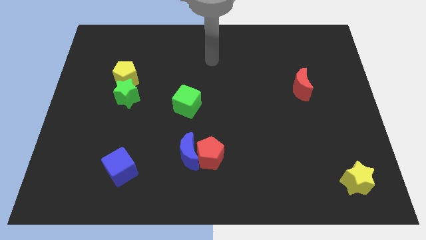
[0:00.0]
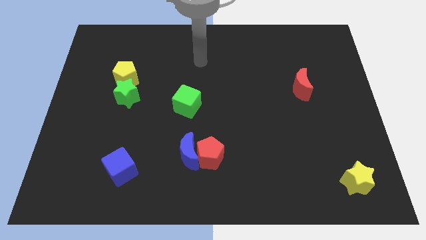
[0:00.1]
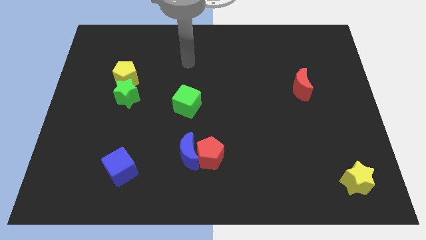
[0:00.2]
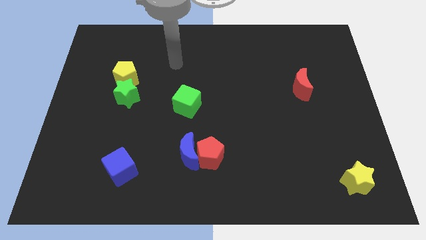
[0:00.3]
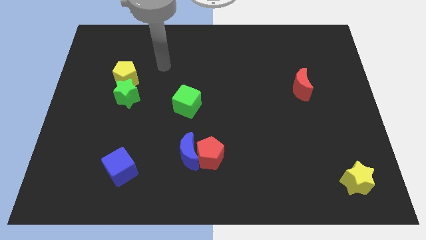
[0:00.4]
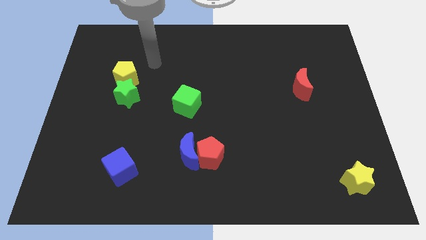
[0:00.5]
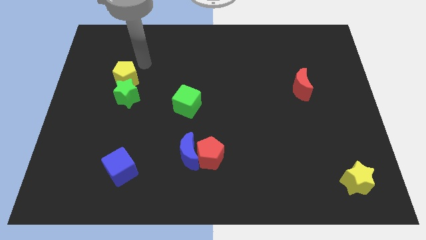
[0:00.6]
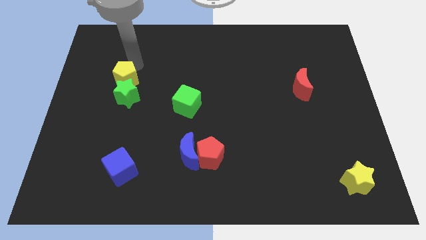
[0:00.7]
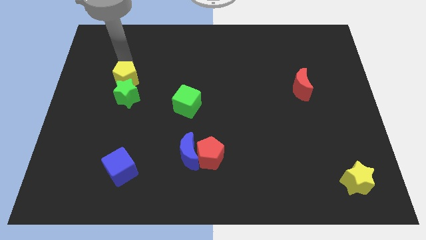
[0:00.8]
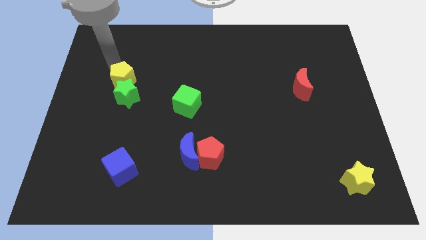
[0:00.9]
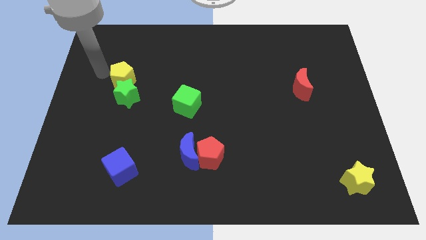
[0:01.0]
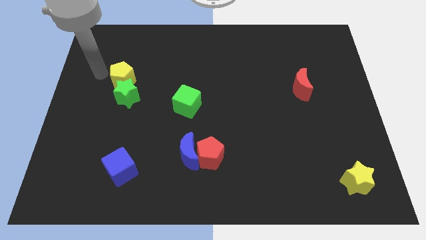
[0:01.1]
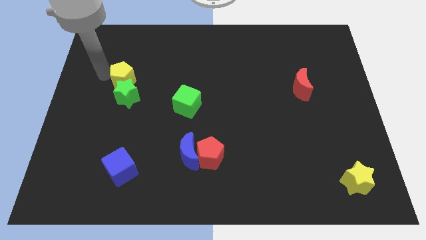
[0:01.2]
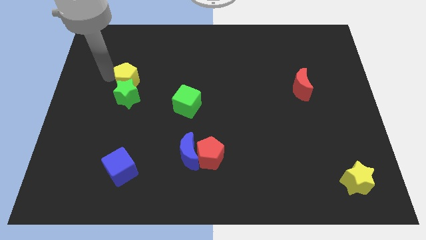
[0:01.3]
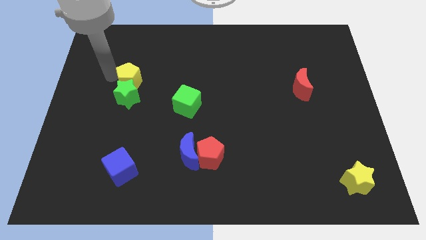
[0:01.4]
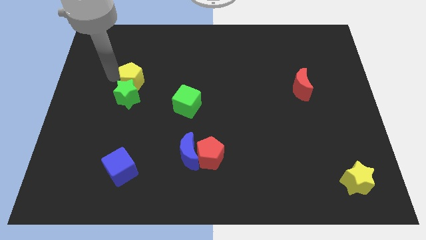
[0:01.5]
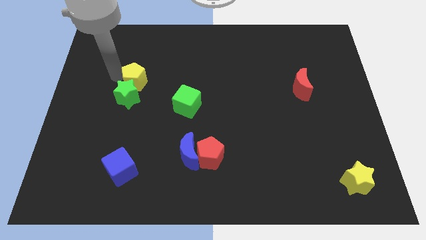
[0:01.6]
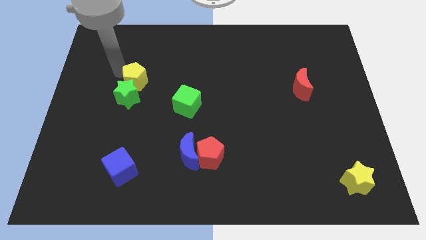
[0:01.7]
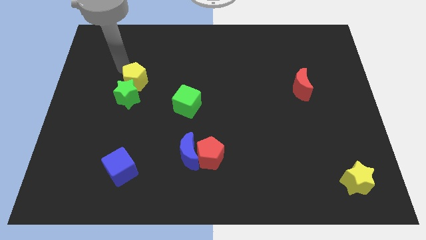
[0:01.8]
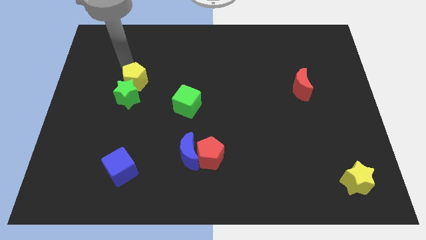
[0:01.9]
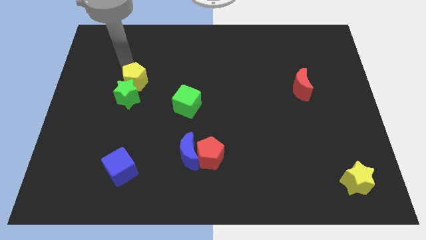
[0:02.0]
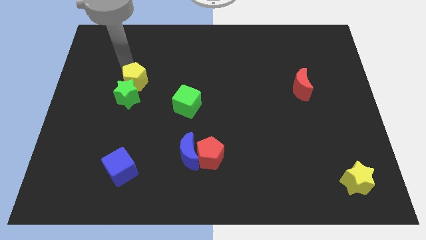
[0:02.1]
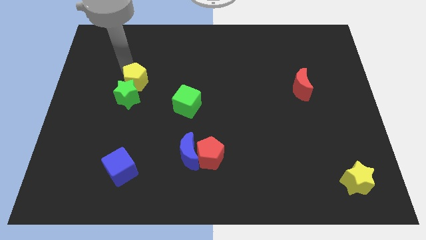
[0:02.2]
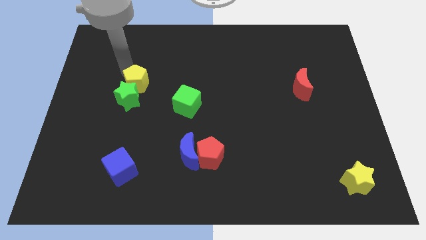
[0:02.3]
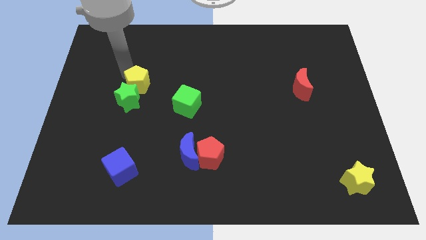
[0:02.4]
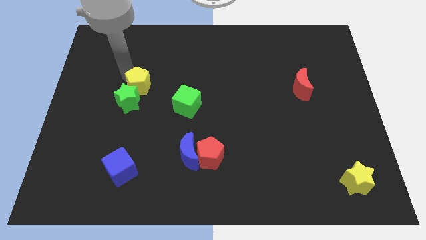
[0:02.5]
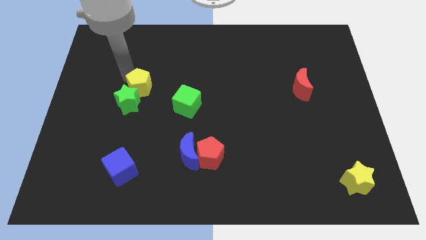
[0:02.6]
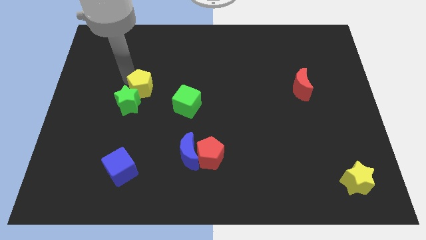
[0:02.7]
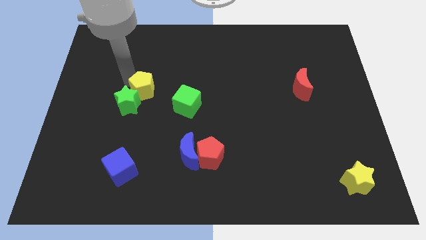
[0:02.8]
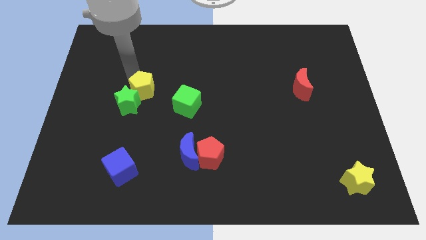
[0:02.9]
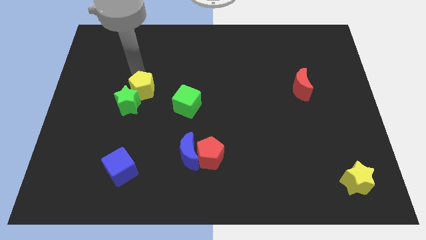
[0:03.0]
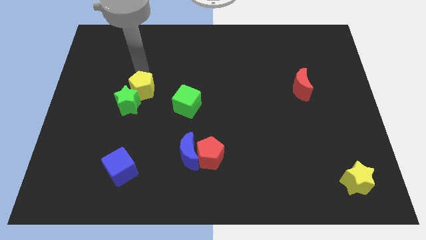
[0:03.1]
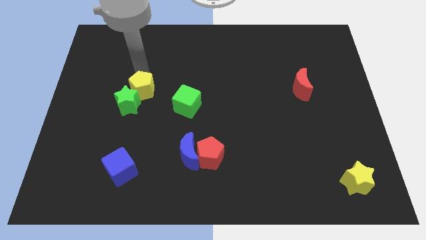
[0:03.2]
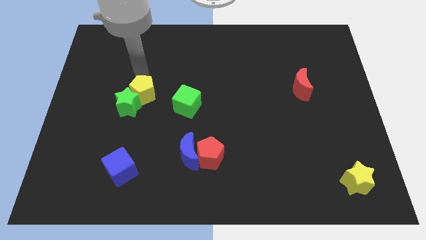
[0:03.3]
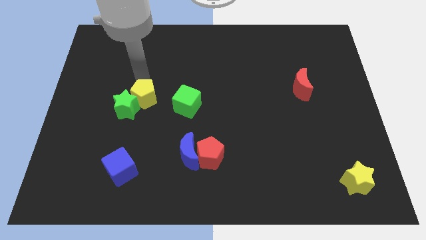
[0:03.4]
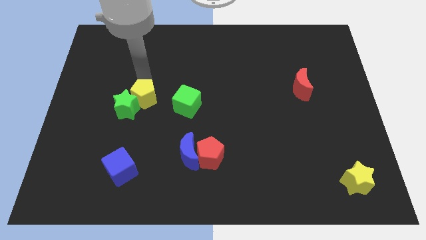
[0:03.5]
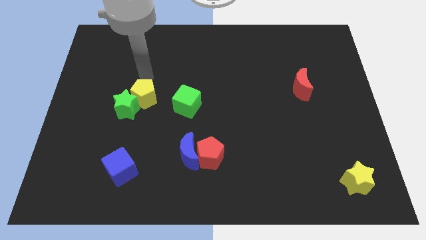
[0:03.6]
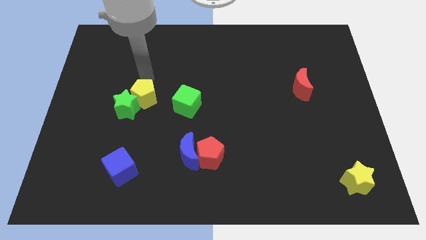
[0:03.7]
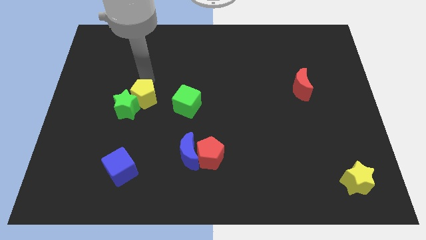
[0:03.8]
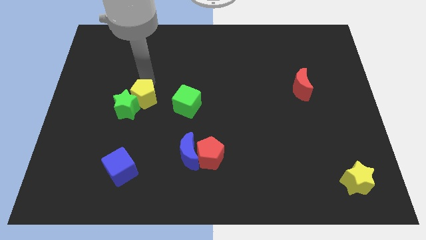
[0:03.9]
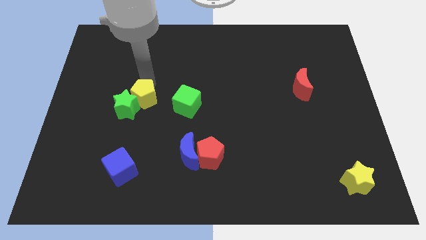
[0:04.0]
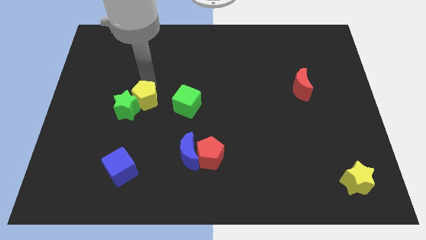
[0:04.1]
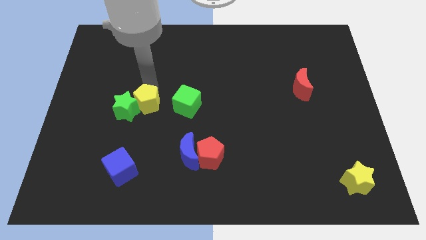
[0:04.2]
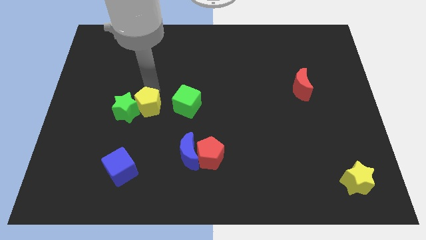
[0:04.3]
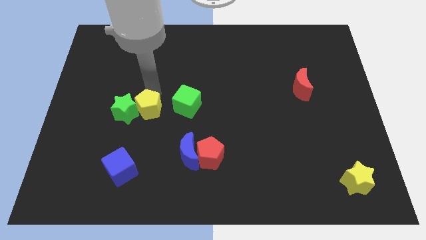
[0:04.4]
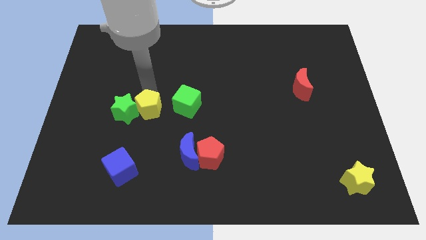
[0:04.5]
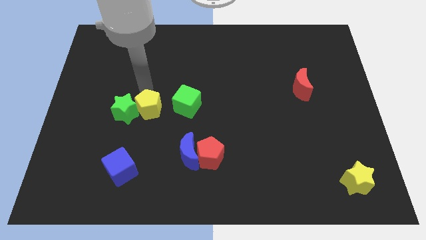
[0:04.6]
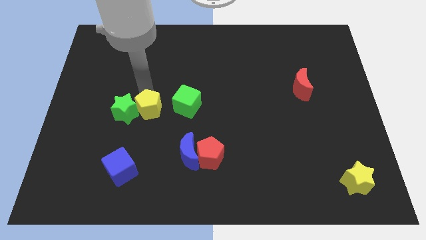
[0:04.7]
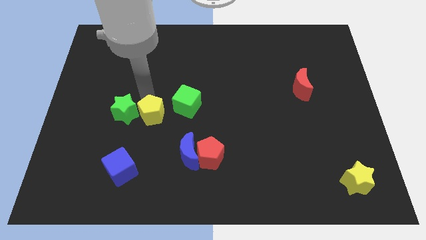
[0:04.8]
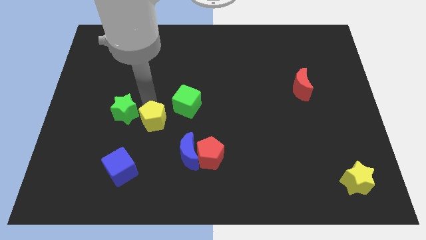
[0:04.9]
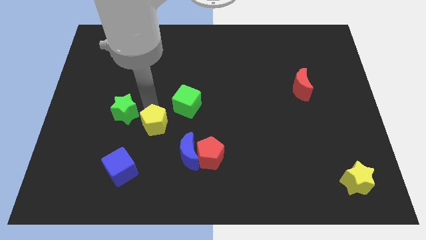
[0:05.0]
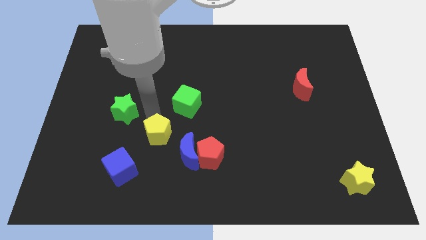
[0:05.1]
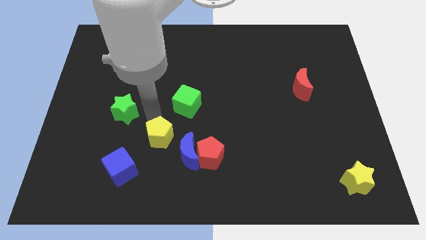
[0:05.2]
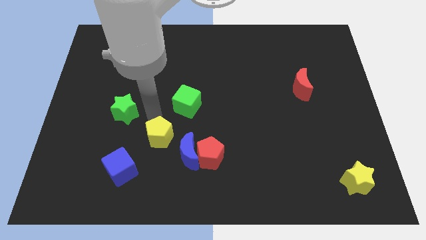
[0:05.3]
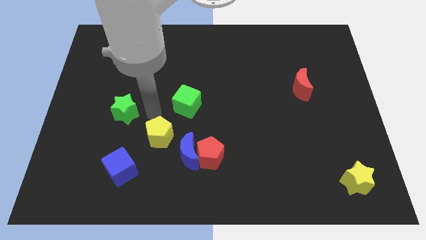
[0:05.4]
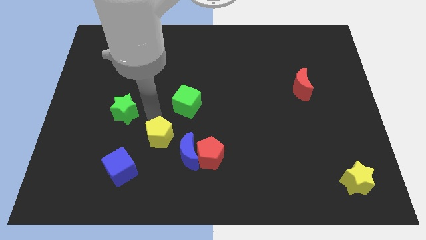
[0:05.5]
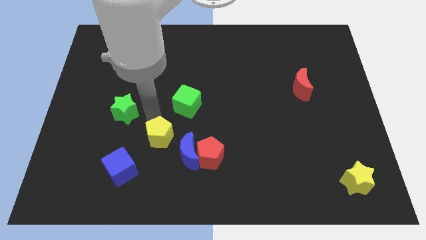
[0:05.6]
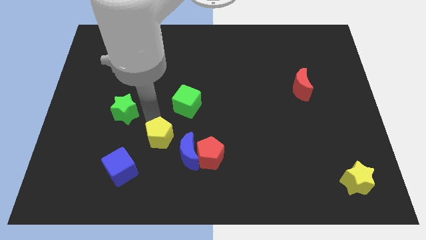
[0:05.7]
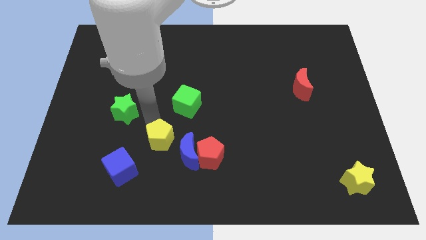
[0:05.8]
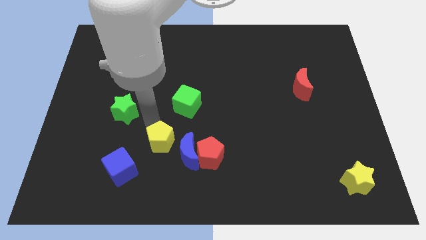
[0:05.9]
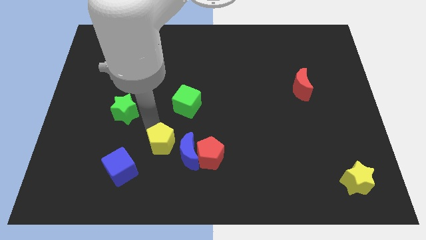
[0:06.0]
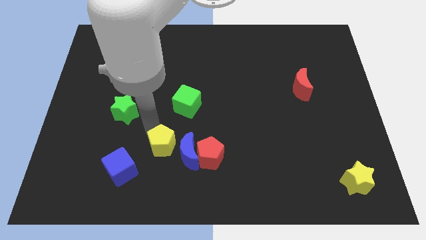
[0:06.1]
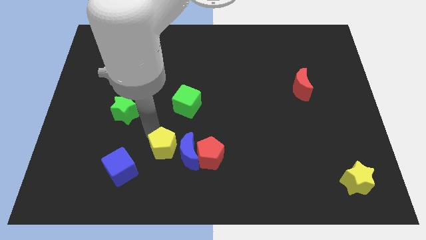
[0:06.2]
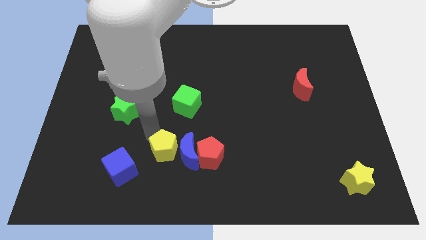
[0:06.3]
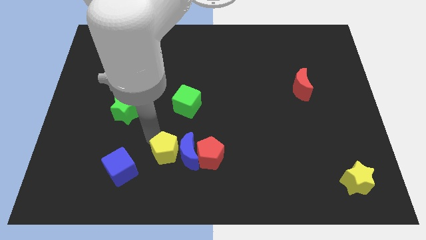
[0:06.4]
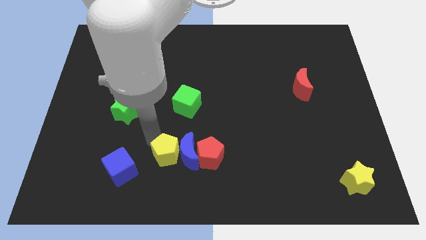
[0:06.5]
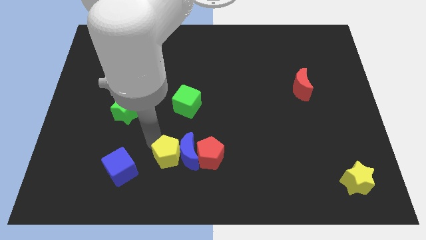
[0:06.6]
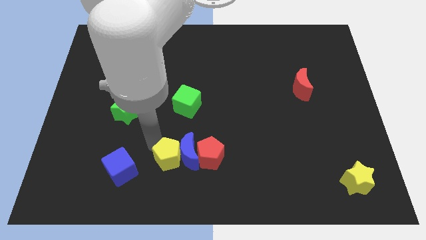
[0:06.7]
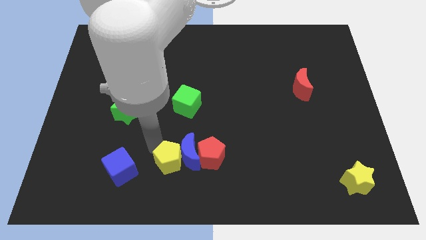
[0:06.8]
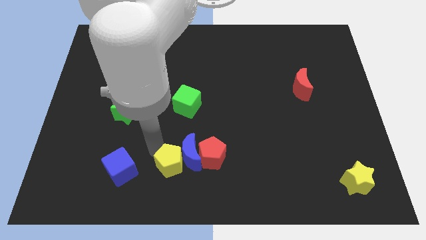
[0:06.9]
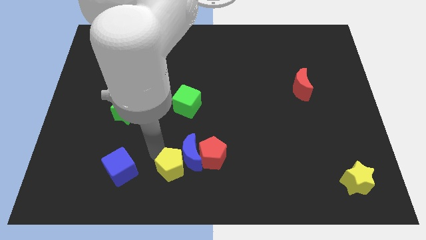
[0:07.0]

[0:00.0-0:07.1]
slide the yellow pentagon to the bottom side
